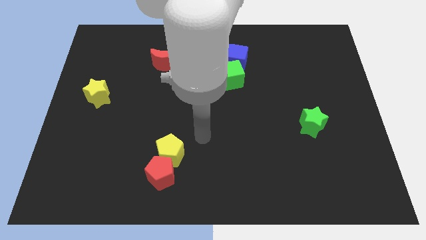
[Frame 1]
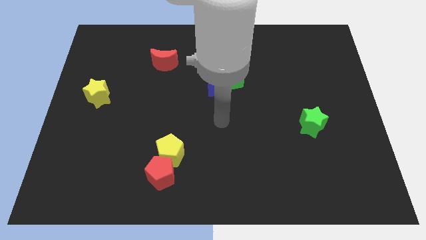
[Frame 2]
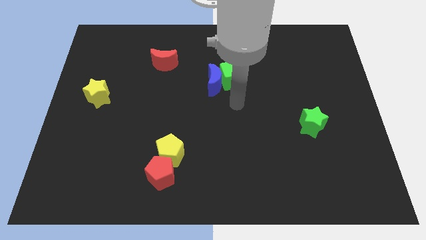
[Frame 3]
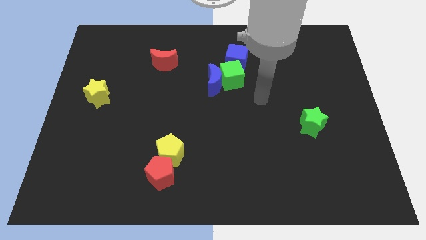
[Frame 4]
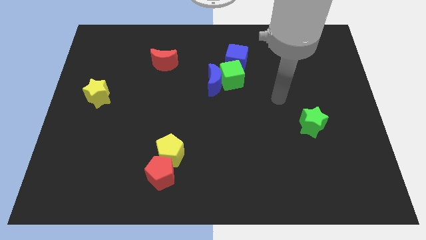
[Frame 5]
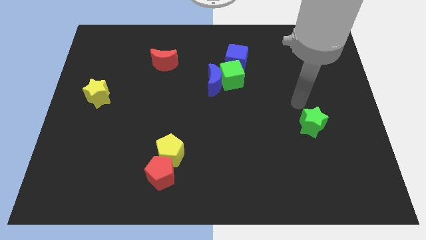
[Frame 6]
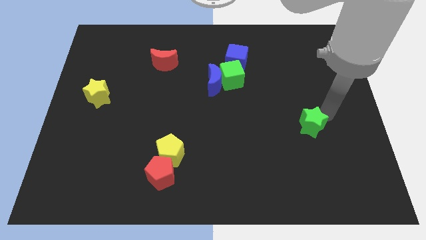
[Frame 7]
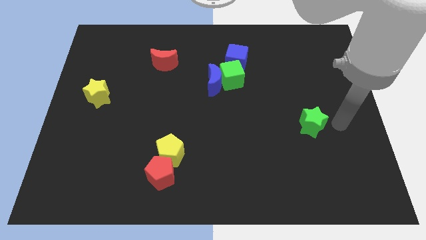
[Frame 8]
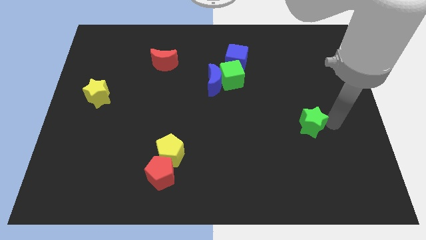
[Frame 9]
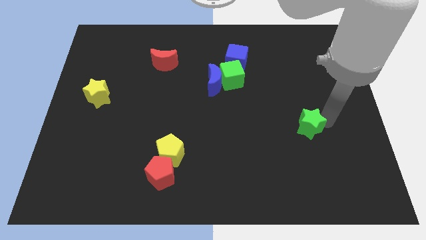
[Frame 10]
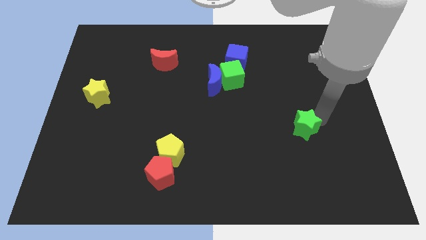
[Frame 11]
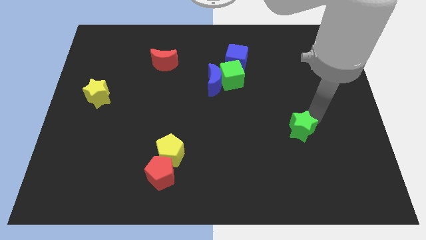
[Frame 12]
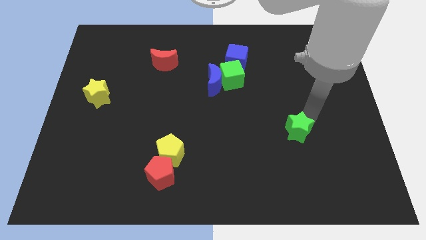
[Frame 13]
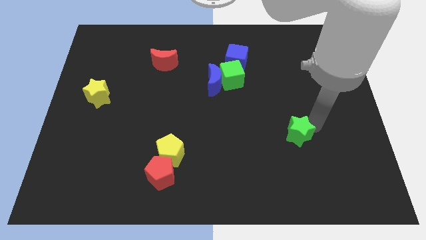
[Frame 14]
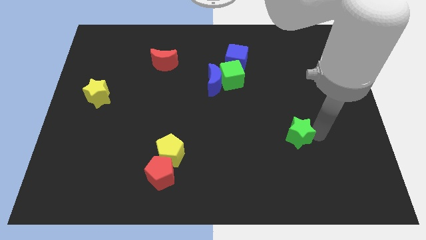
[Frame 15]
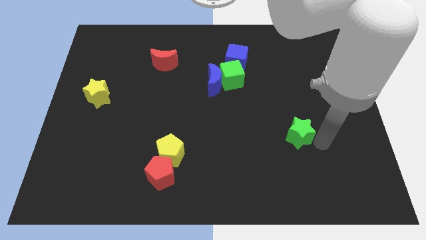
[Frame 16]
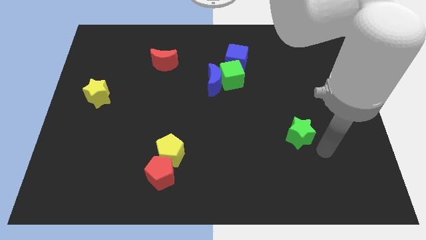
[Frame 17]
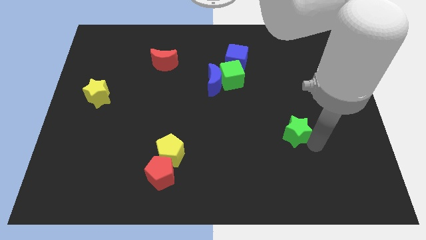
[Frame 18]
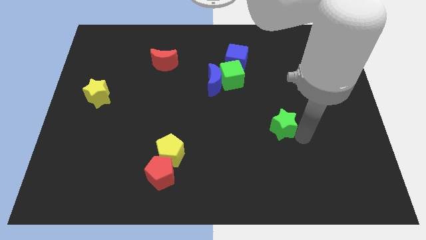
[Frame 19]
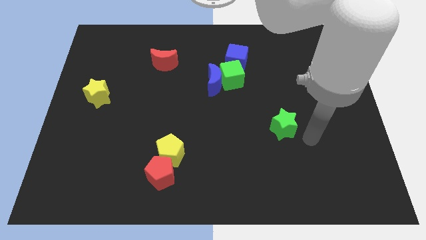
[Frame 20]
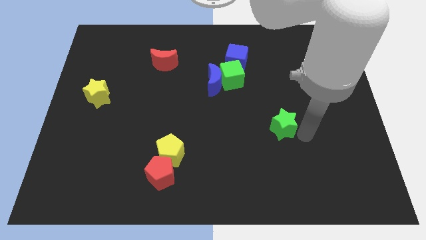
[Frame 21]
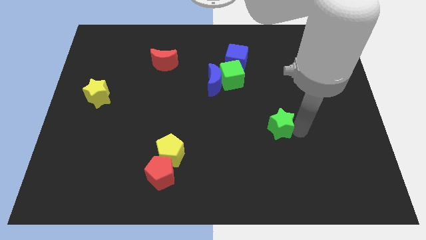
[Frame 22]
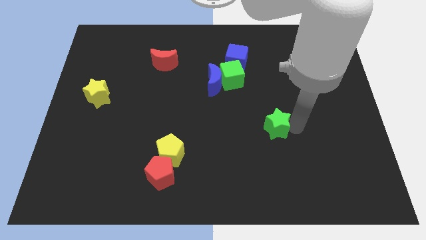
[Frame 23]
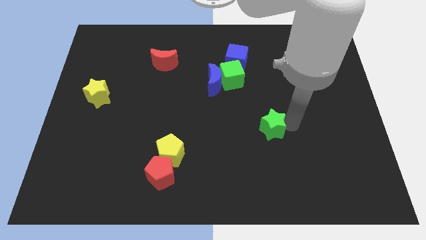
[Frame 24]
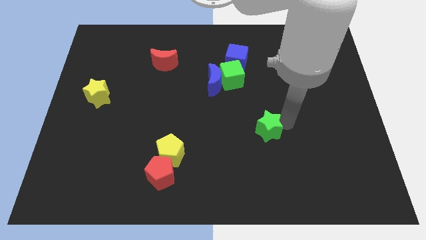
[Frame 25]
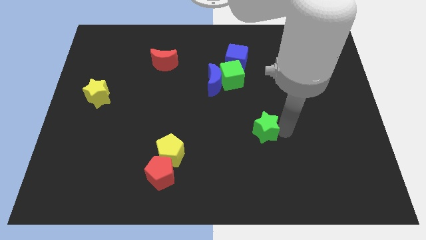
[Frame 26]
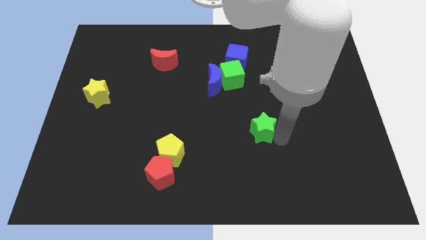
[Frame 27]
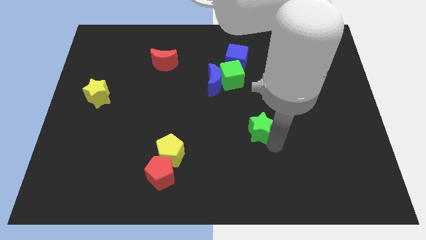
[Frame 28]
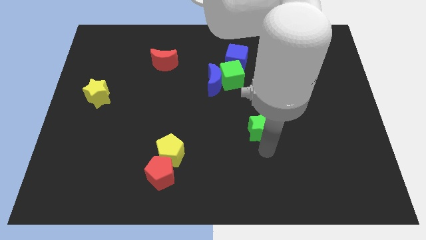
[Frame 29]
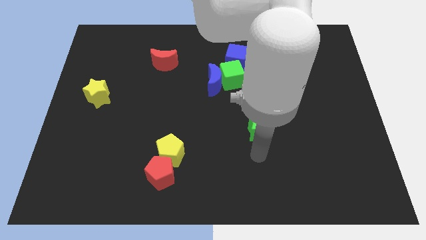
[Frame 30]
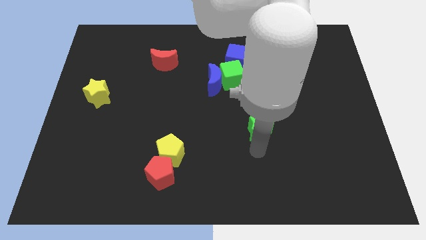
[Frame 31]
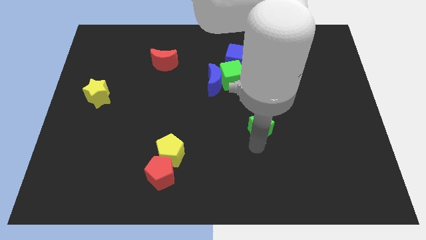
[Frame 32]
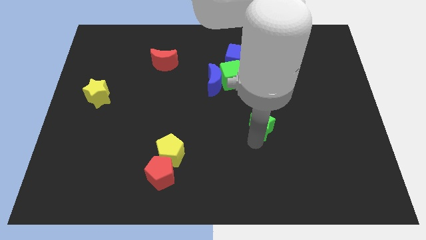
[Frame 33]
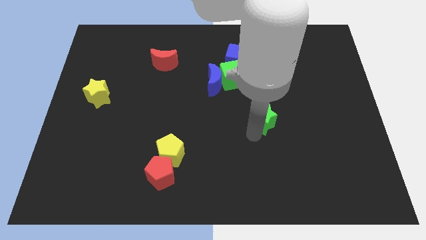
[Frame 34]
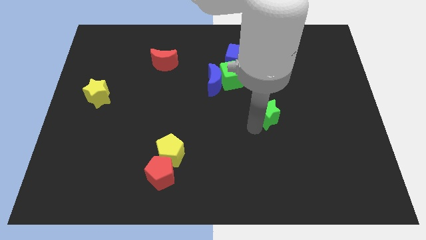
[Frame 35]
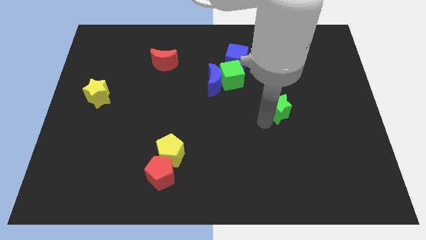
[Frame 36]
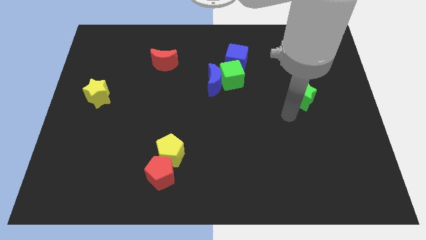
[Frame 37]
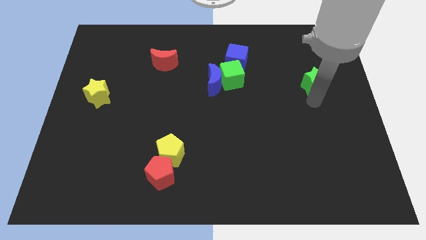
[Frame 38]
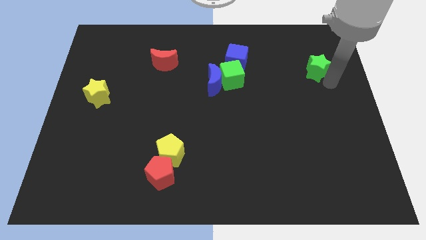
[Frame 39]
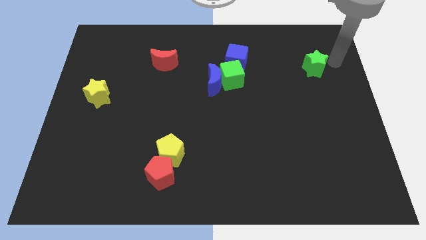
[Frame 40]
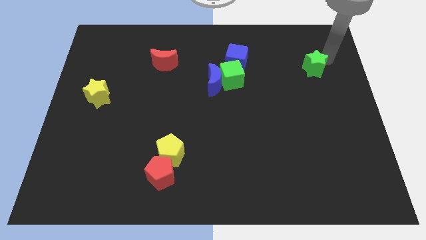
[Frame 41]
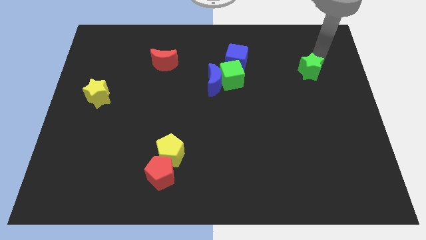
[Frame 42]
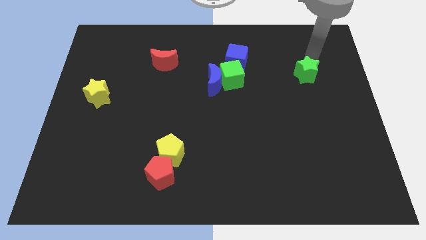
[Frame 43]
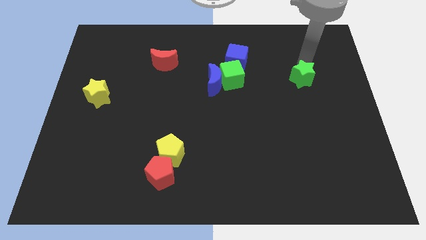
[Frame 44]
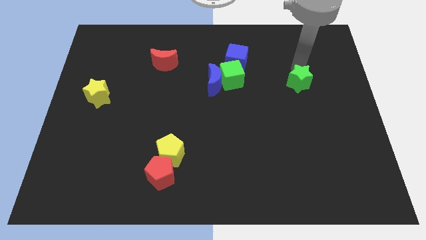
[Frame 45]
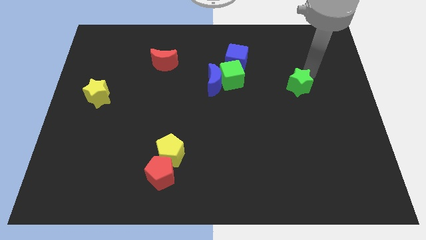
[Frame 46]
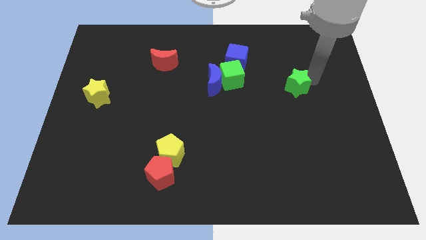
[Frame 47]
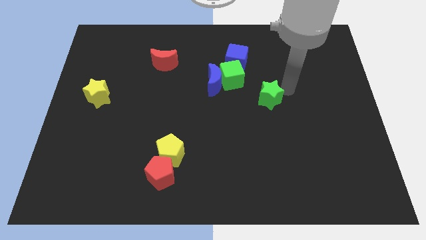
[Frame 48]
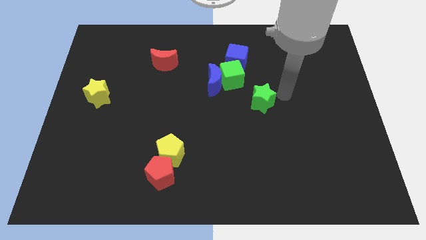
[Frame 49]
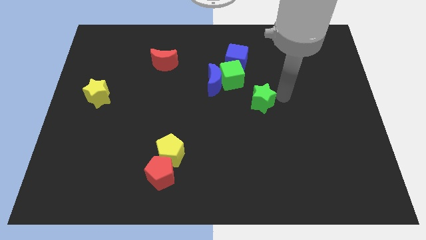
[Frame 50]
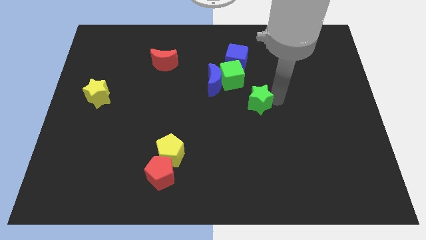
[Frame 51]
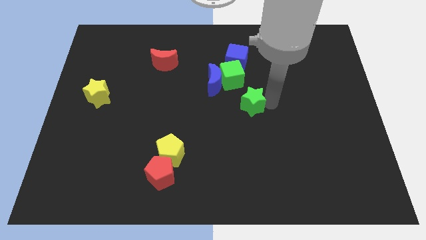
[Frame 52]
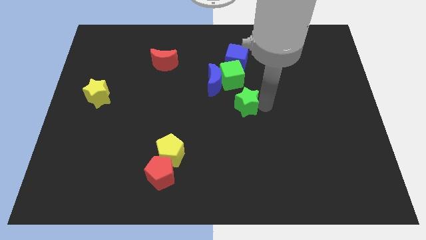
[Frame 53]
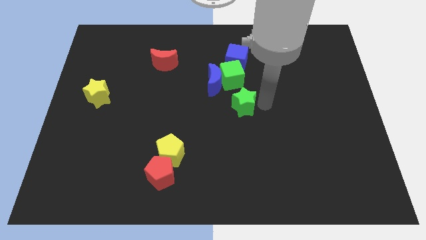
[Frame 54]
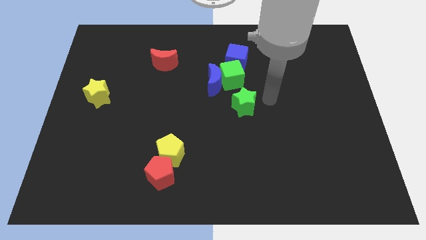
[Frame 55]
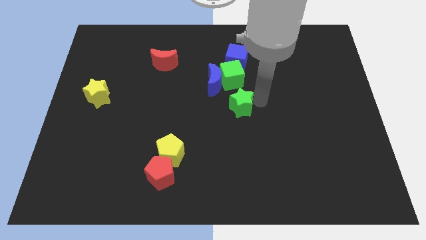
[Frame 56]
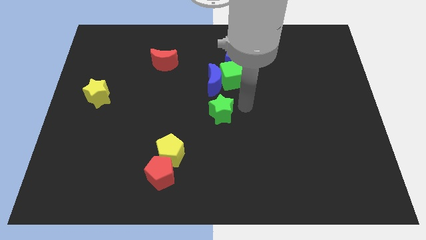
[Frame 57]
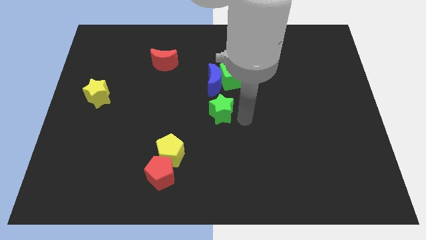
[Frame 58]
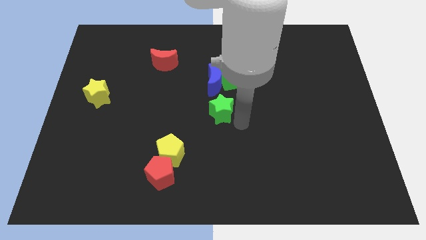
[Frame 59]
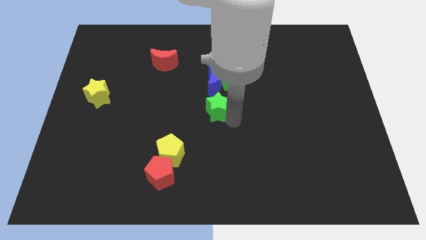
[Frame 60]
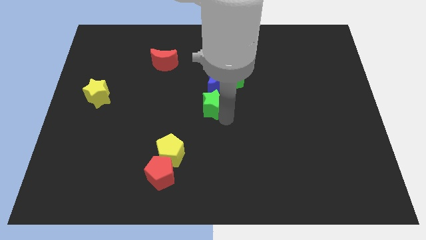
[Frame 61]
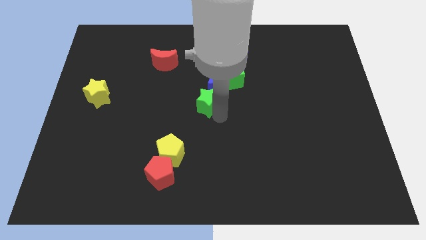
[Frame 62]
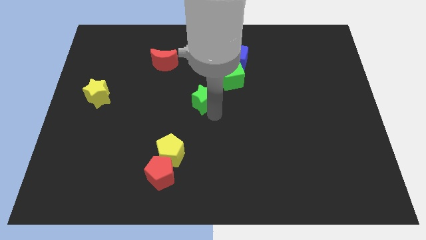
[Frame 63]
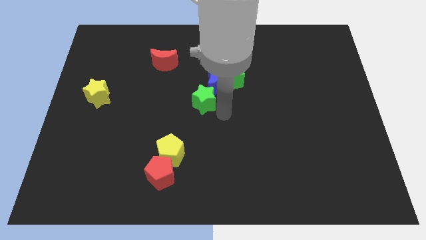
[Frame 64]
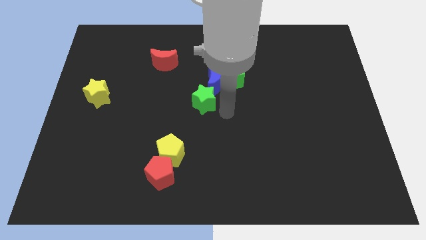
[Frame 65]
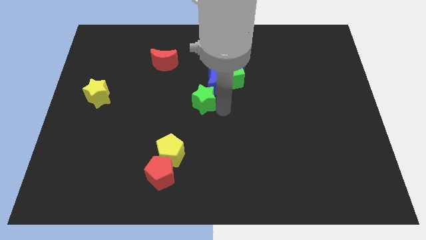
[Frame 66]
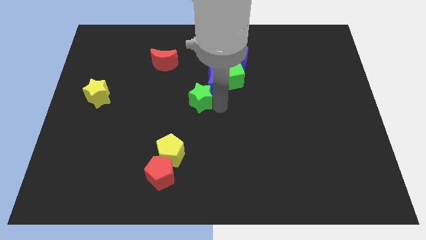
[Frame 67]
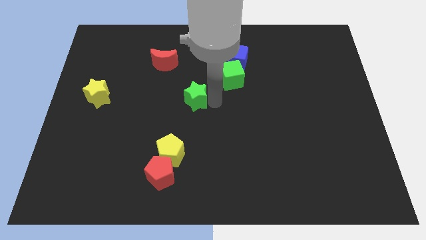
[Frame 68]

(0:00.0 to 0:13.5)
slide the green star left of the blue moon
